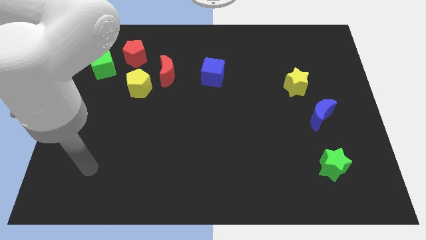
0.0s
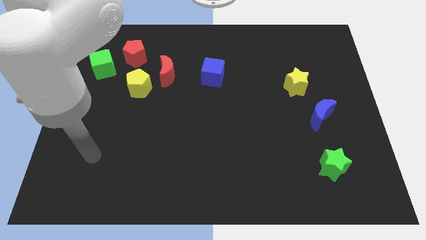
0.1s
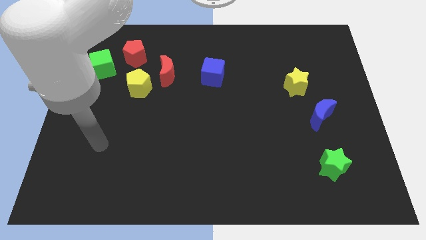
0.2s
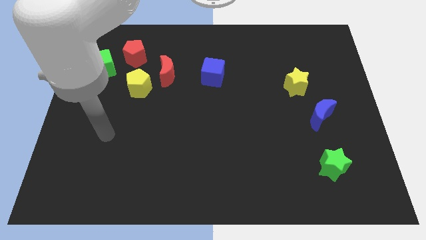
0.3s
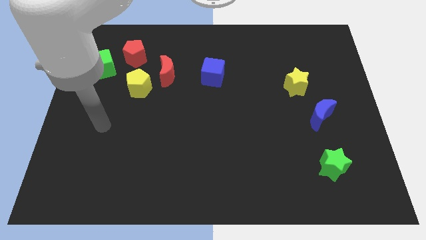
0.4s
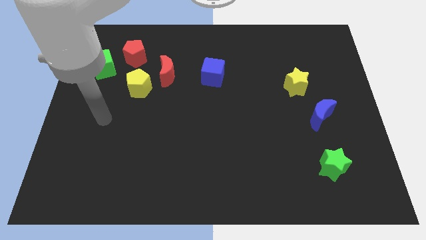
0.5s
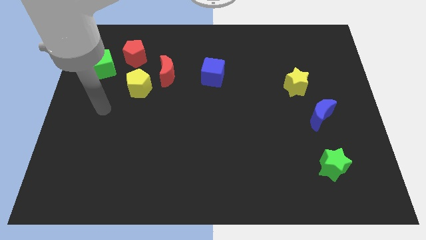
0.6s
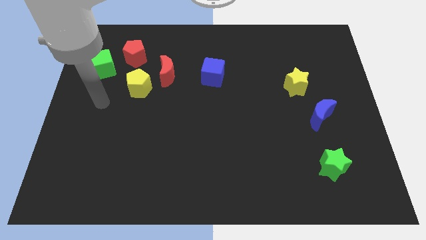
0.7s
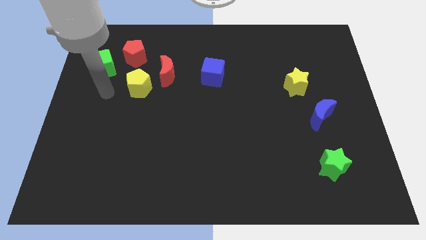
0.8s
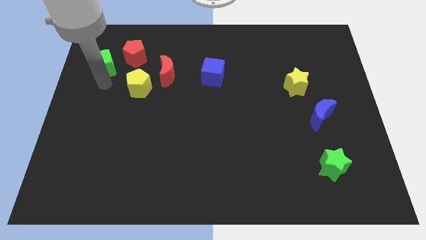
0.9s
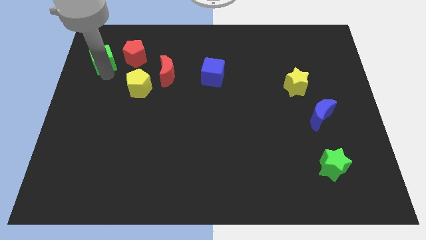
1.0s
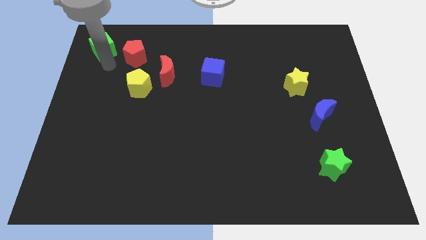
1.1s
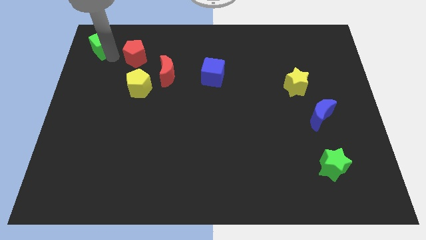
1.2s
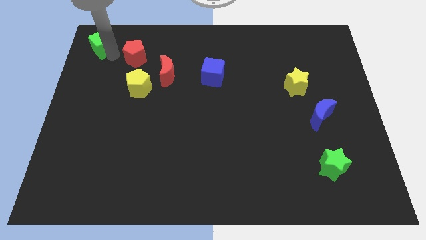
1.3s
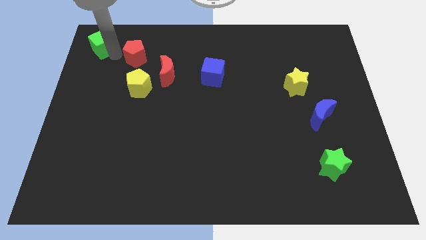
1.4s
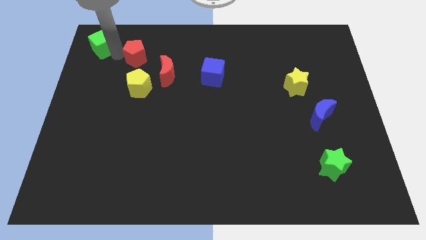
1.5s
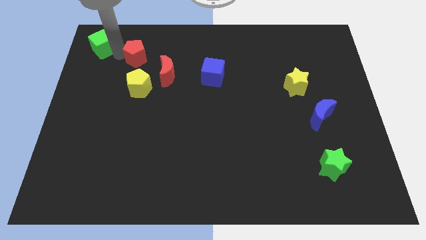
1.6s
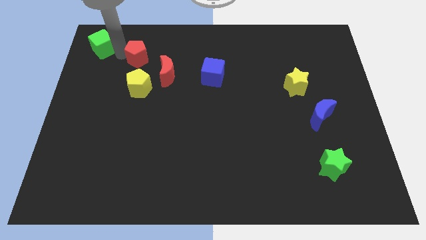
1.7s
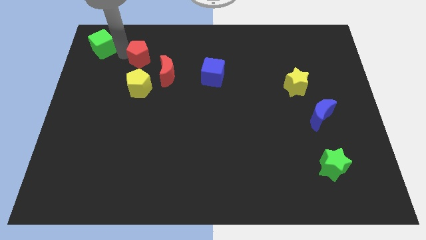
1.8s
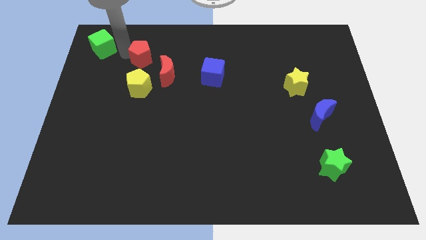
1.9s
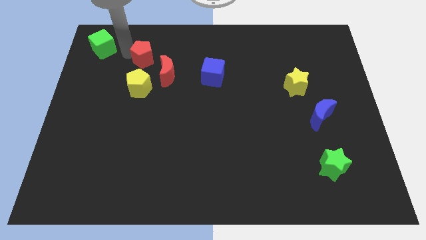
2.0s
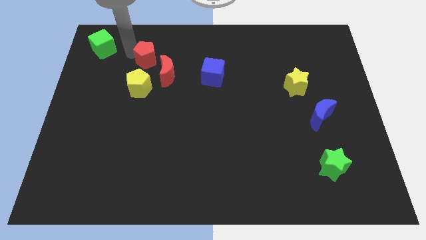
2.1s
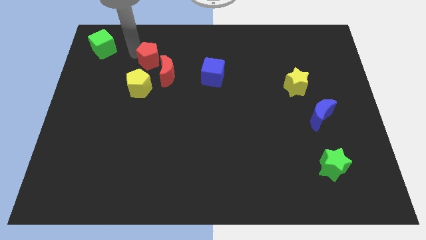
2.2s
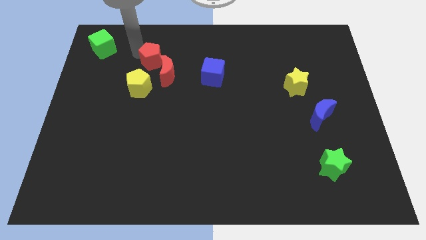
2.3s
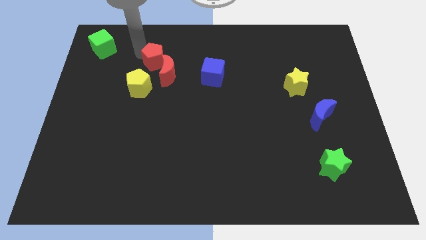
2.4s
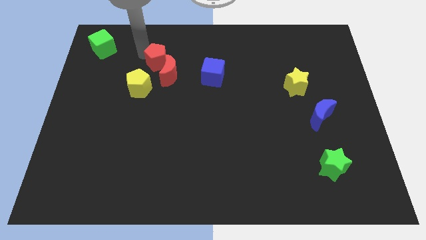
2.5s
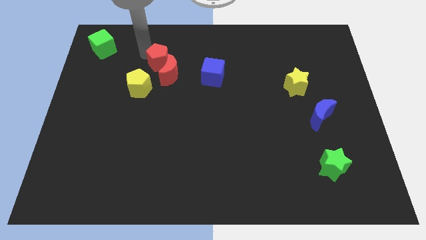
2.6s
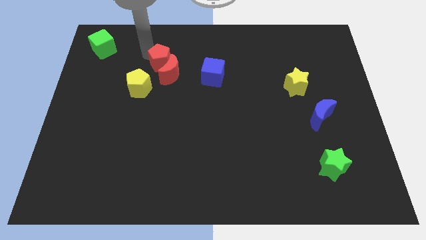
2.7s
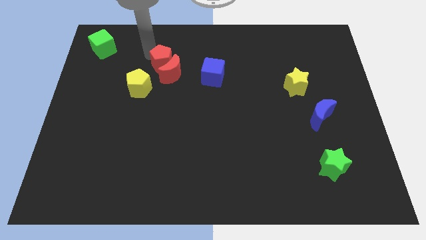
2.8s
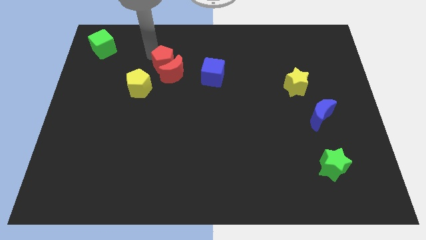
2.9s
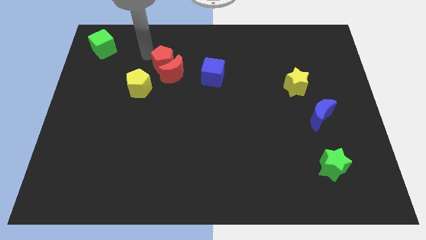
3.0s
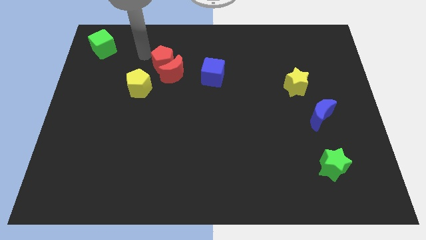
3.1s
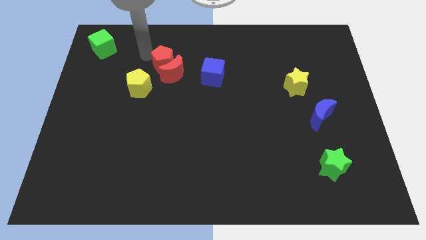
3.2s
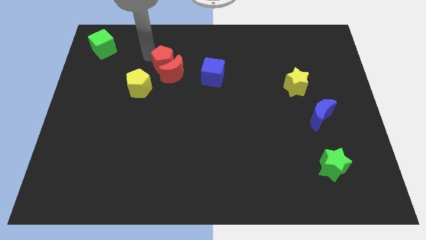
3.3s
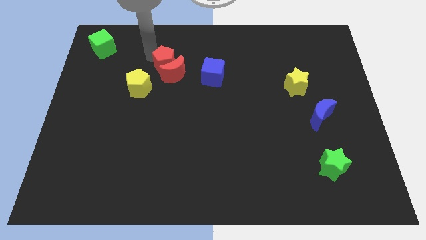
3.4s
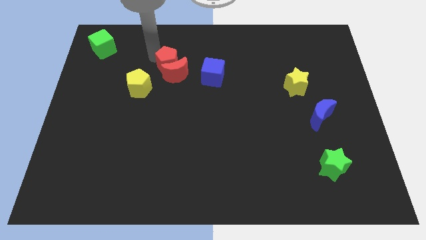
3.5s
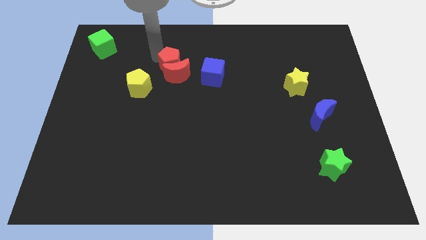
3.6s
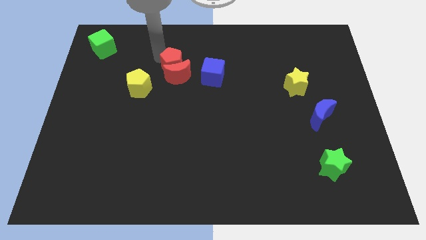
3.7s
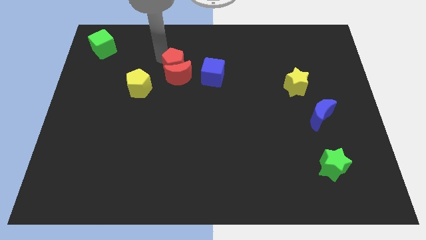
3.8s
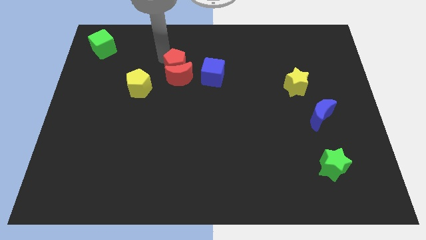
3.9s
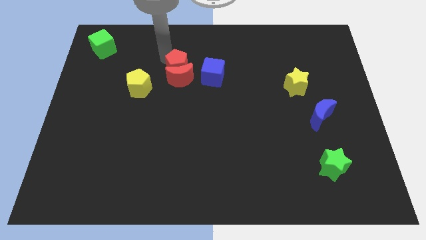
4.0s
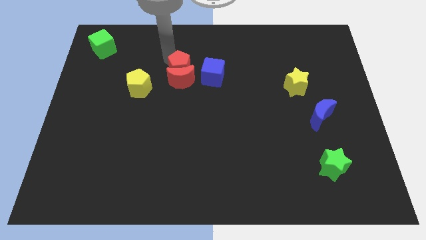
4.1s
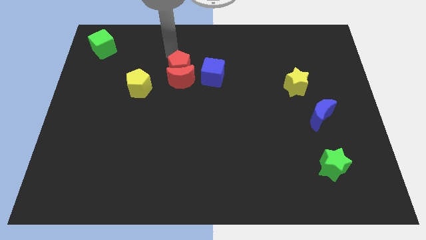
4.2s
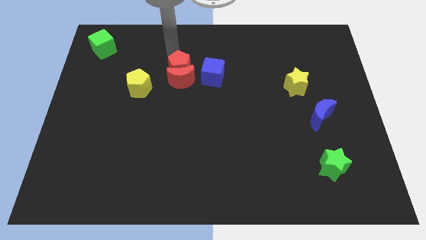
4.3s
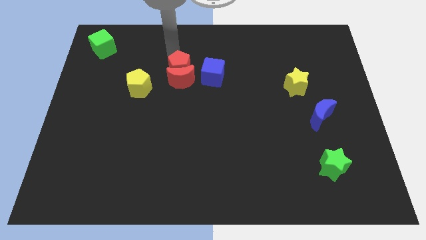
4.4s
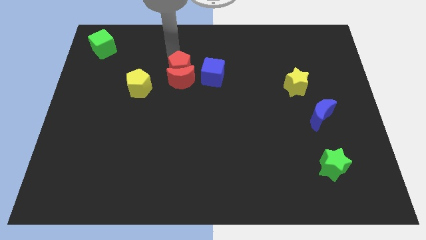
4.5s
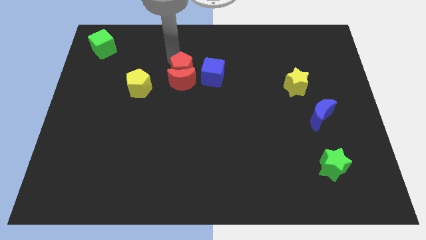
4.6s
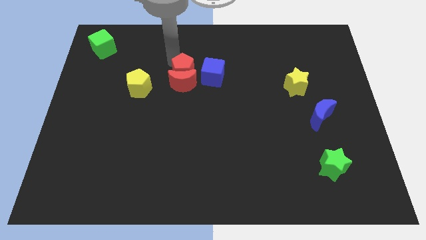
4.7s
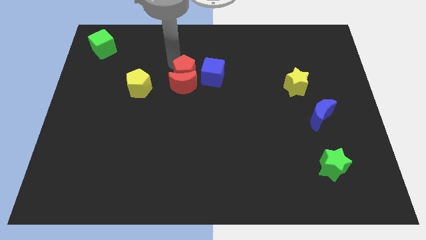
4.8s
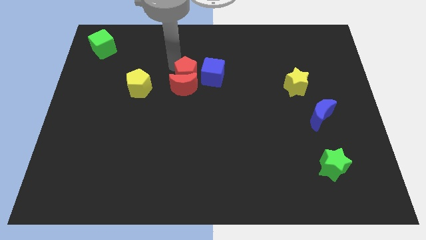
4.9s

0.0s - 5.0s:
push the red pentagon to the bottom left of the blue cube

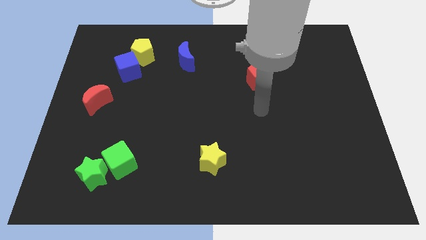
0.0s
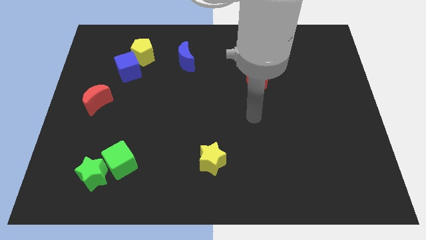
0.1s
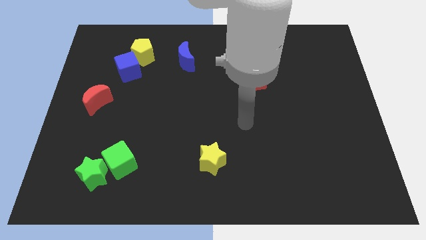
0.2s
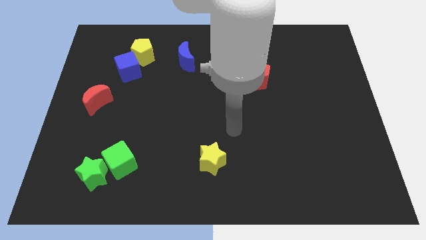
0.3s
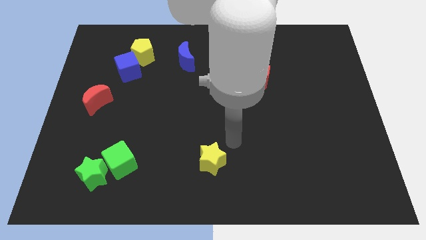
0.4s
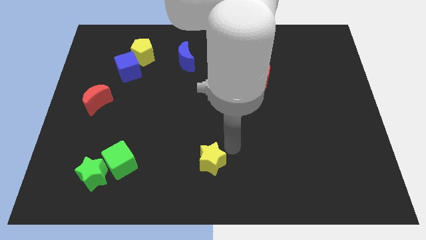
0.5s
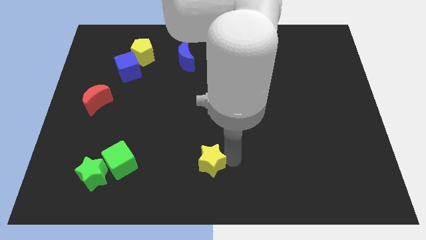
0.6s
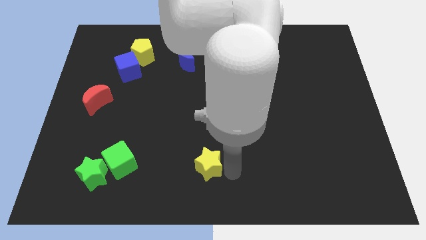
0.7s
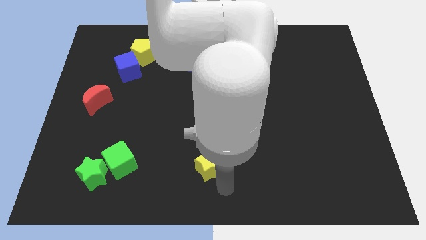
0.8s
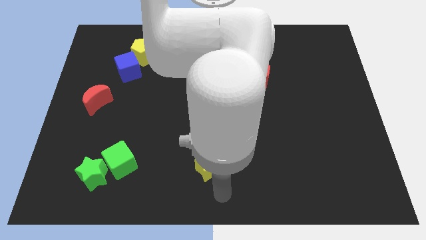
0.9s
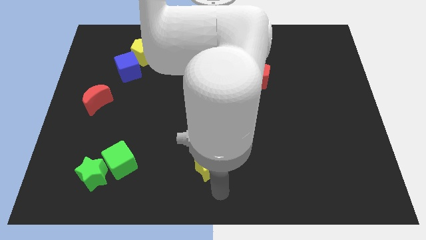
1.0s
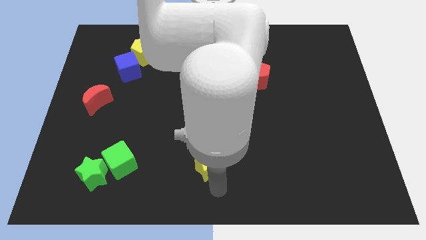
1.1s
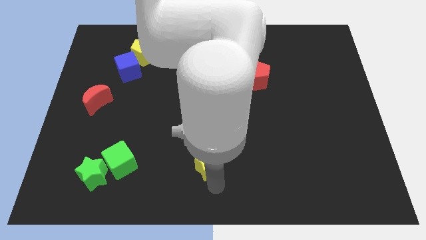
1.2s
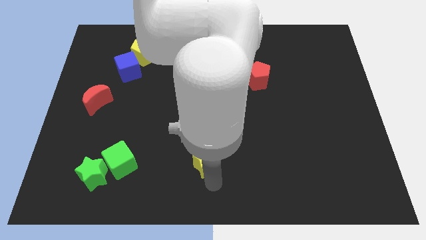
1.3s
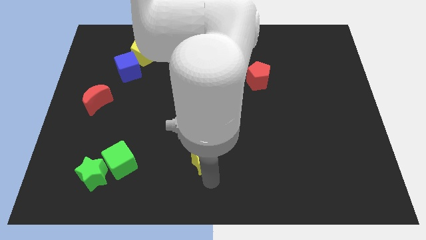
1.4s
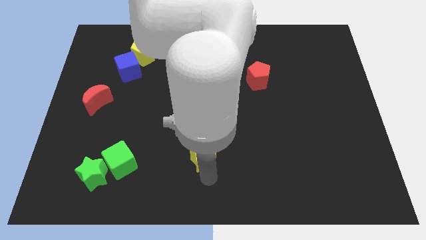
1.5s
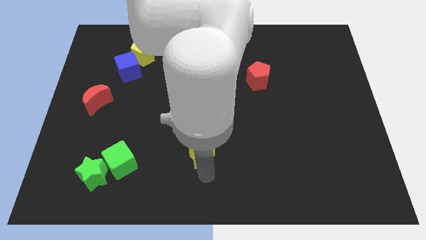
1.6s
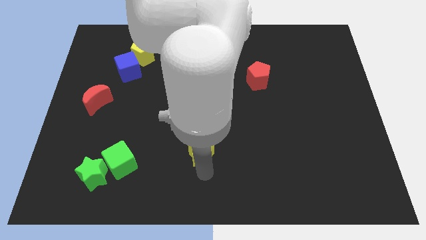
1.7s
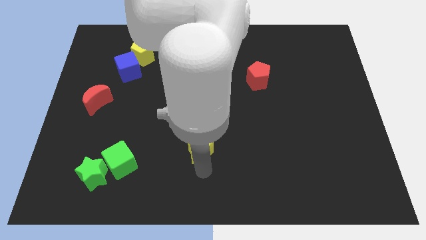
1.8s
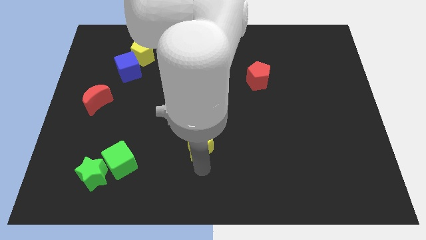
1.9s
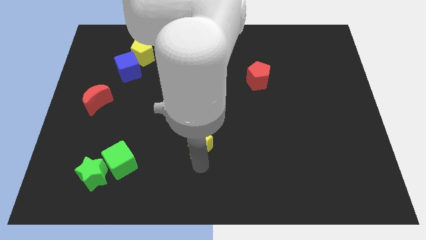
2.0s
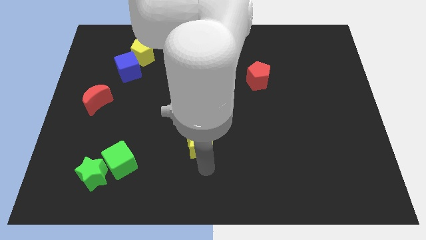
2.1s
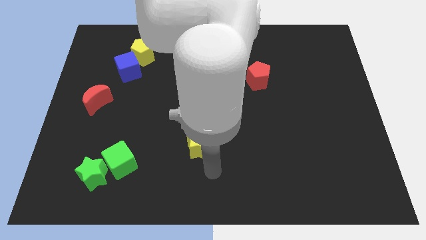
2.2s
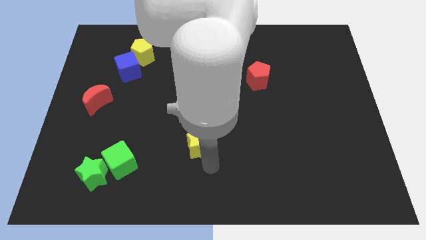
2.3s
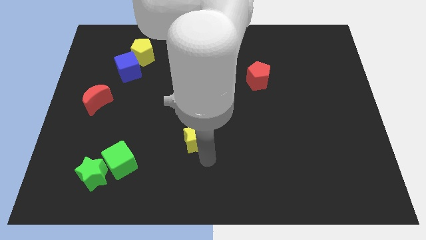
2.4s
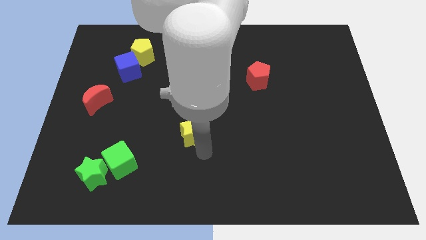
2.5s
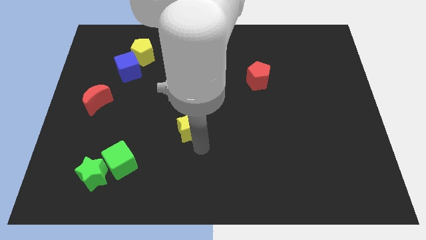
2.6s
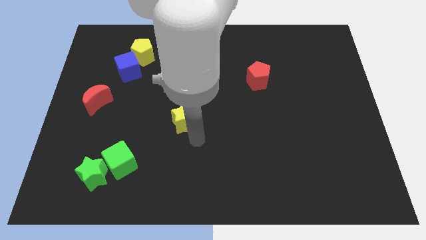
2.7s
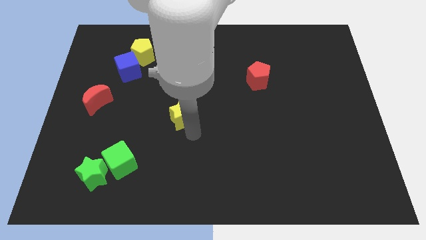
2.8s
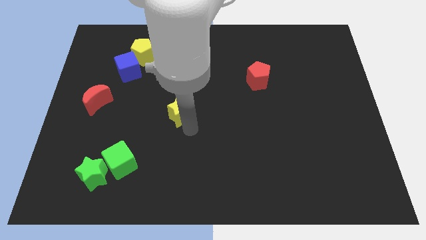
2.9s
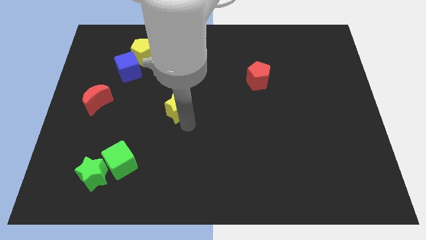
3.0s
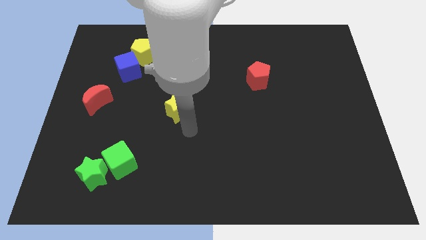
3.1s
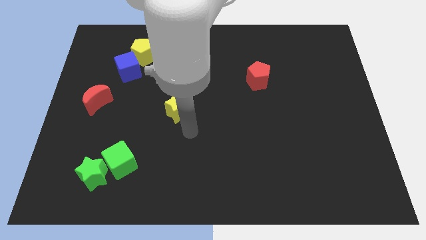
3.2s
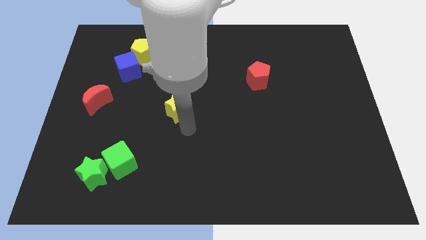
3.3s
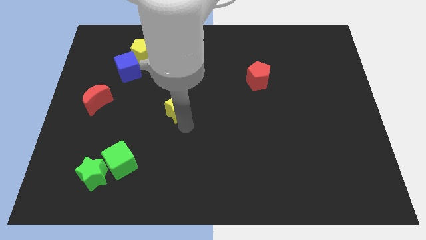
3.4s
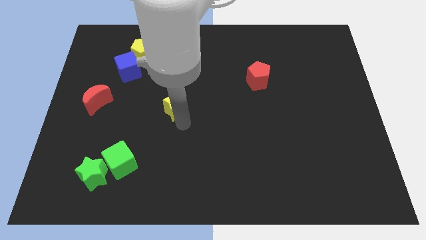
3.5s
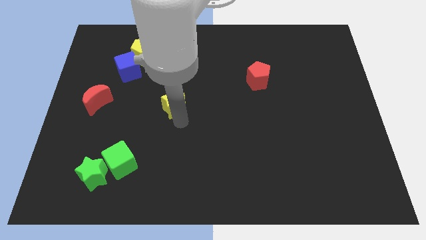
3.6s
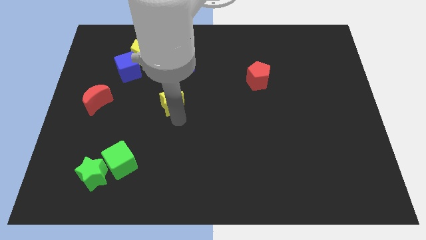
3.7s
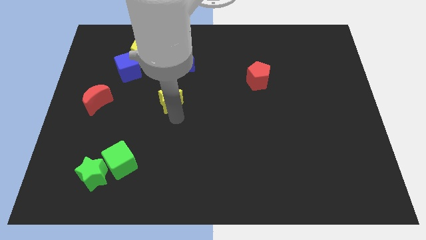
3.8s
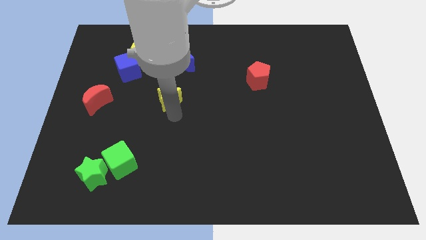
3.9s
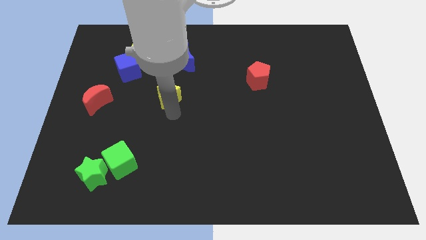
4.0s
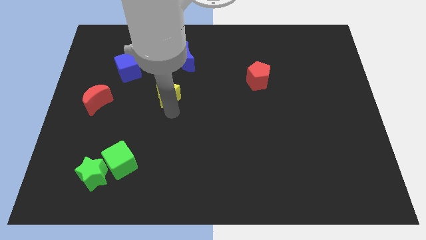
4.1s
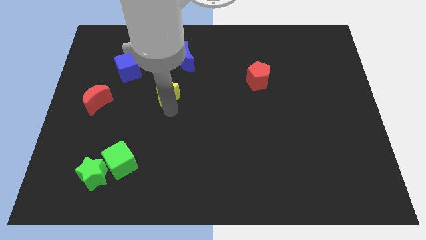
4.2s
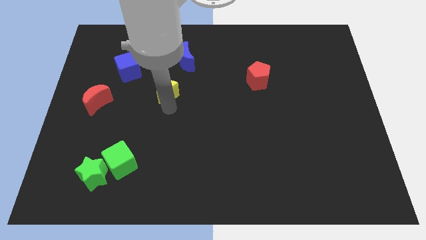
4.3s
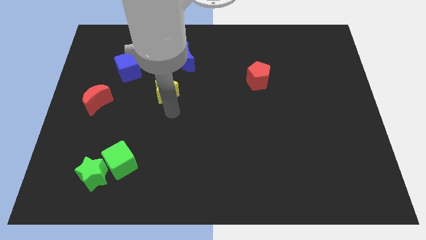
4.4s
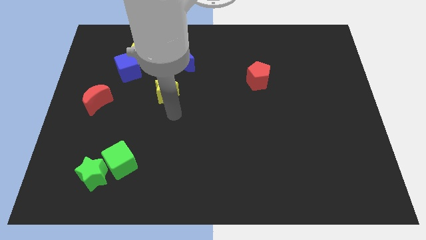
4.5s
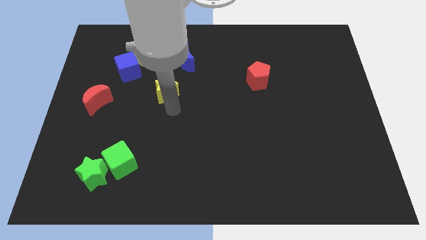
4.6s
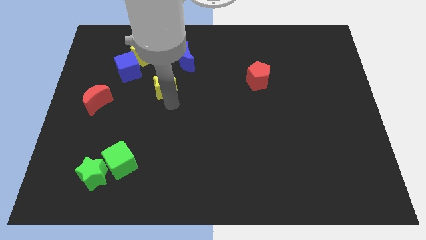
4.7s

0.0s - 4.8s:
put the yellow star to the bottom left of the blue moon
